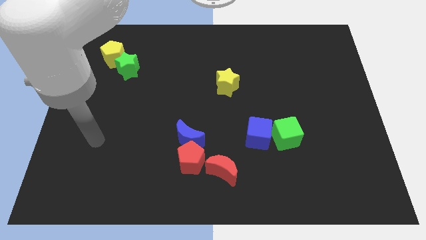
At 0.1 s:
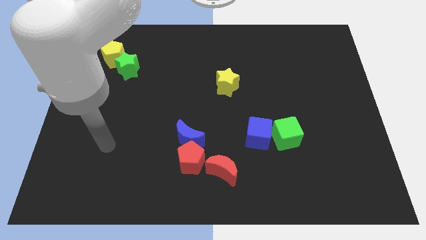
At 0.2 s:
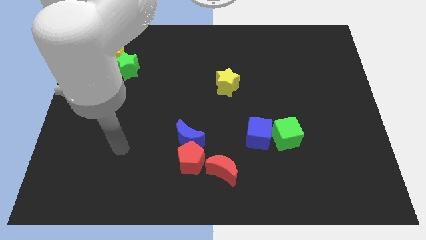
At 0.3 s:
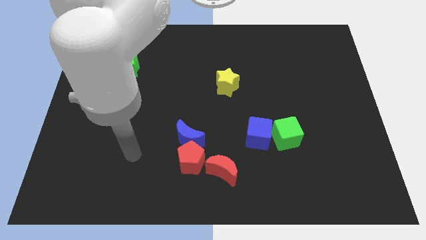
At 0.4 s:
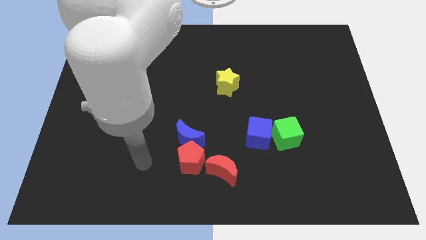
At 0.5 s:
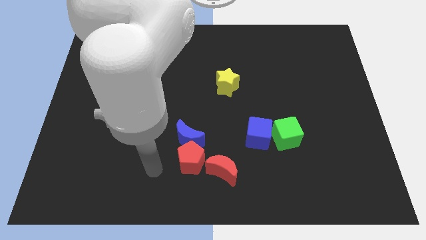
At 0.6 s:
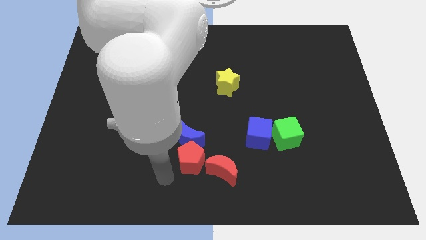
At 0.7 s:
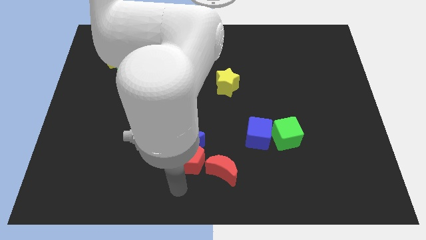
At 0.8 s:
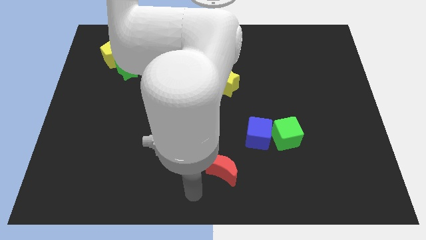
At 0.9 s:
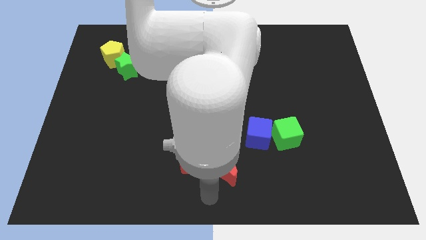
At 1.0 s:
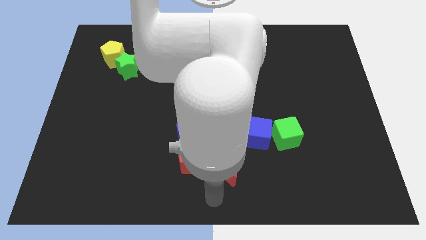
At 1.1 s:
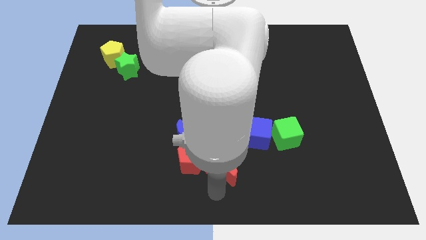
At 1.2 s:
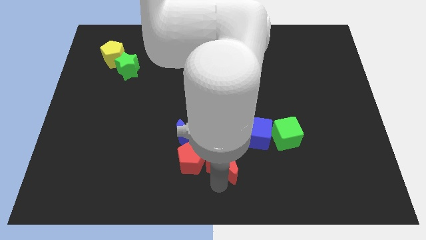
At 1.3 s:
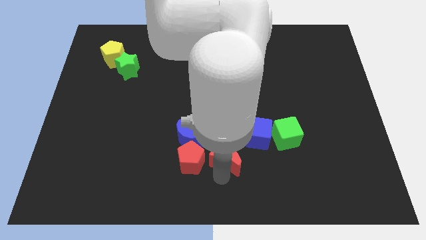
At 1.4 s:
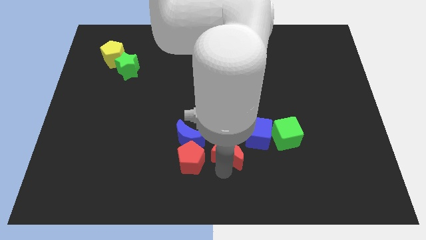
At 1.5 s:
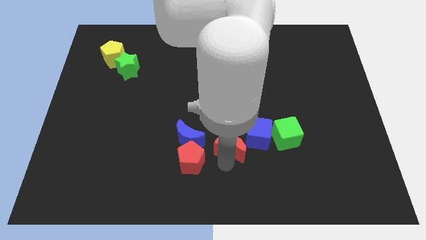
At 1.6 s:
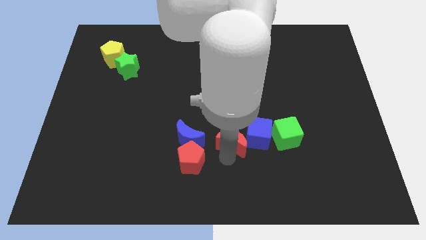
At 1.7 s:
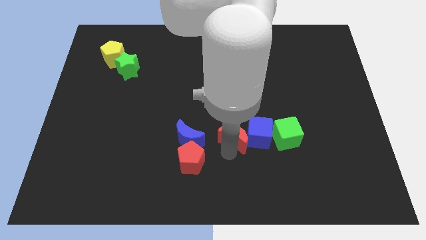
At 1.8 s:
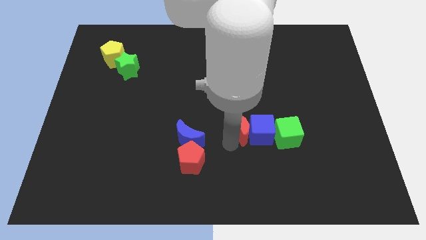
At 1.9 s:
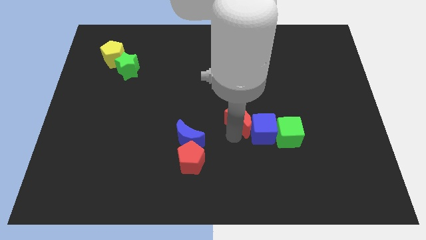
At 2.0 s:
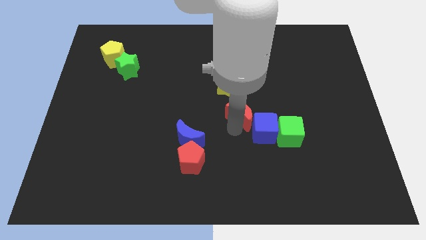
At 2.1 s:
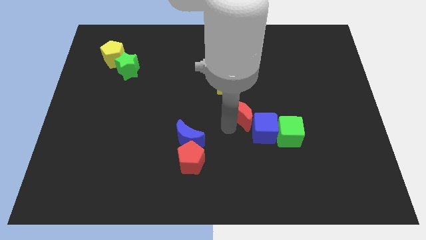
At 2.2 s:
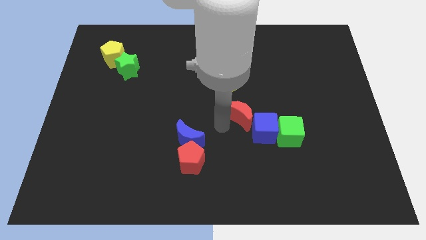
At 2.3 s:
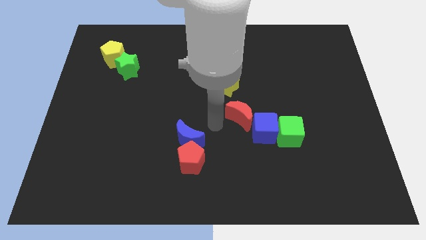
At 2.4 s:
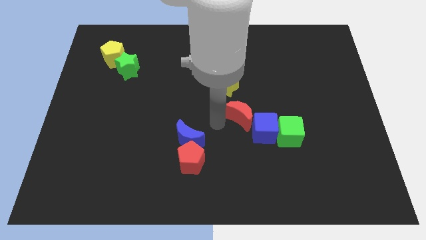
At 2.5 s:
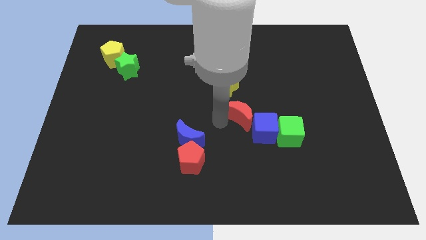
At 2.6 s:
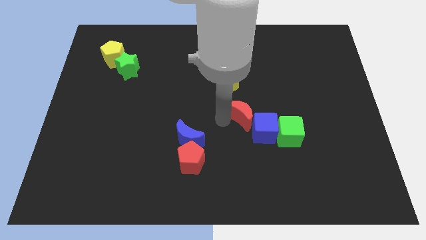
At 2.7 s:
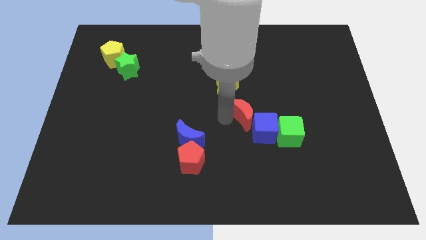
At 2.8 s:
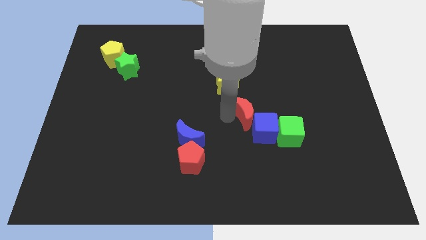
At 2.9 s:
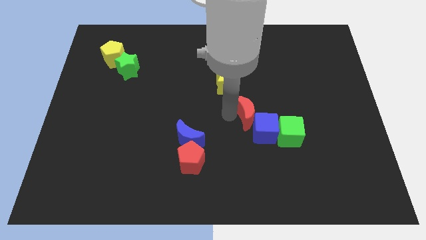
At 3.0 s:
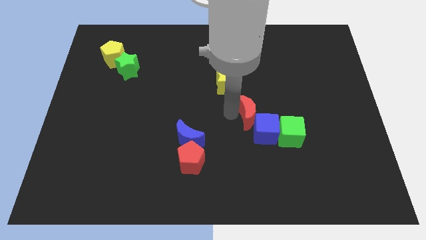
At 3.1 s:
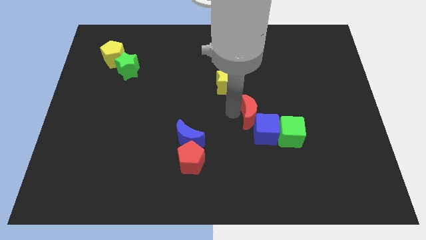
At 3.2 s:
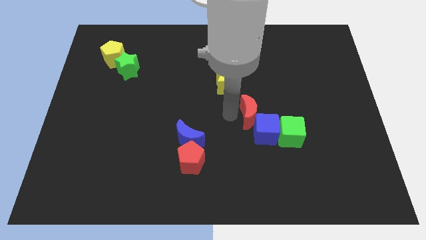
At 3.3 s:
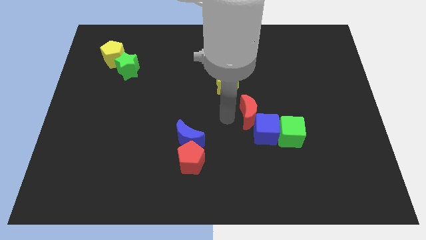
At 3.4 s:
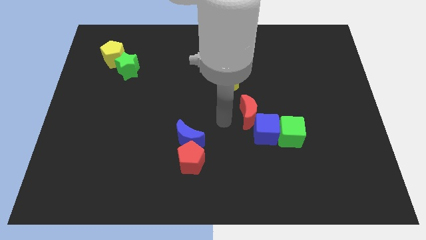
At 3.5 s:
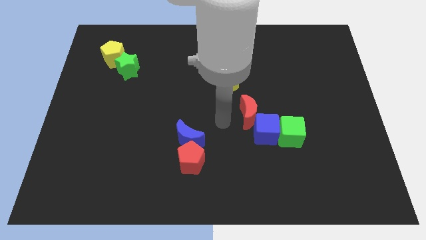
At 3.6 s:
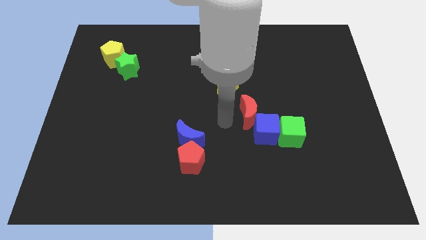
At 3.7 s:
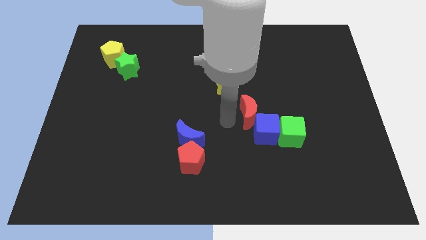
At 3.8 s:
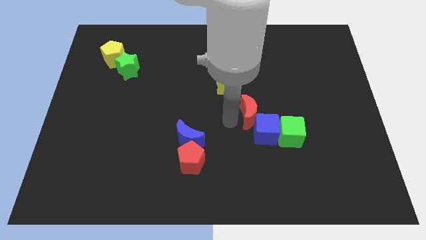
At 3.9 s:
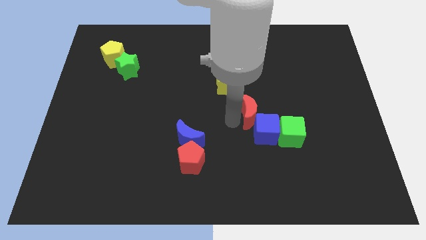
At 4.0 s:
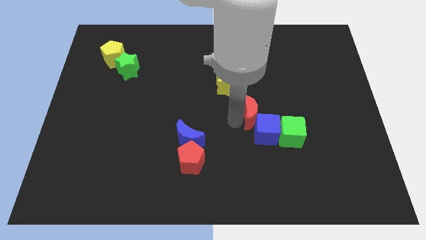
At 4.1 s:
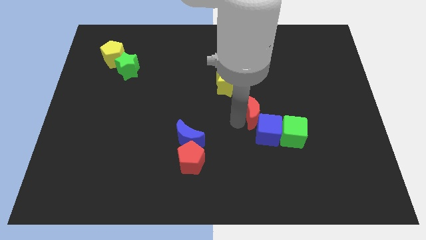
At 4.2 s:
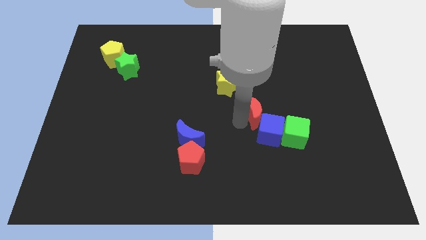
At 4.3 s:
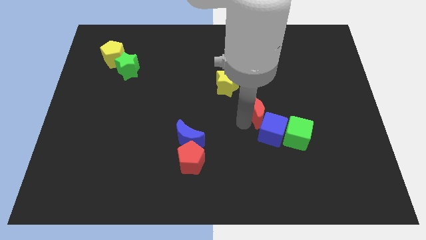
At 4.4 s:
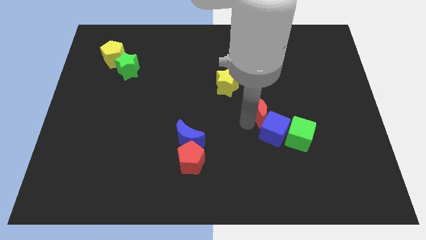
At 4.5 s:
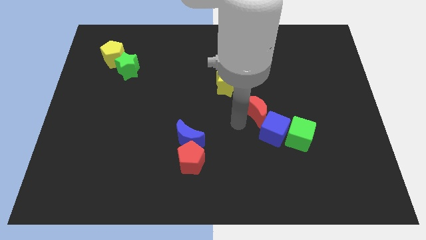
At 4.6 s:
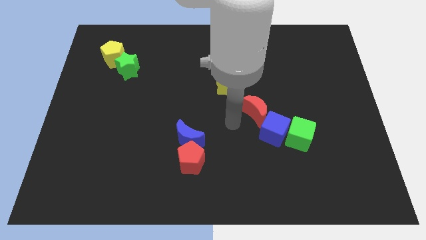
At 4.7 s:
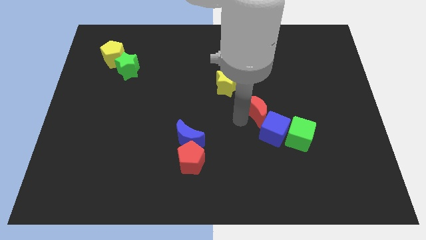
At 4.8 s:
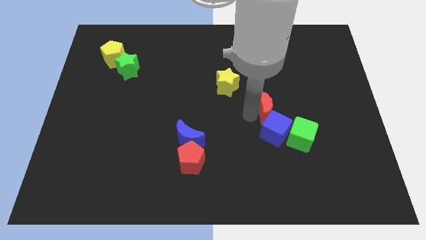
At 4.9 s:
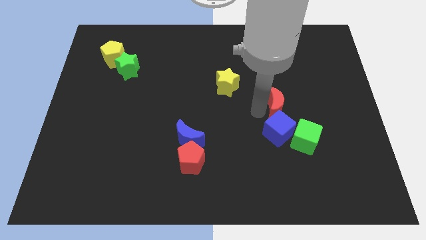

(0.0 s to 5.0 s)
push the red moon diagonally up and to the right

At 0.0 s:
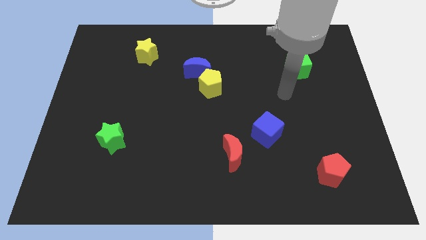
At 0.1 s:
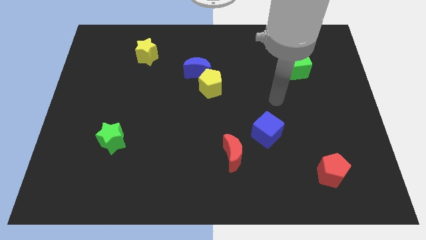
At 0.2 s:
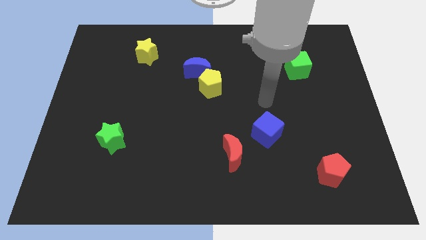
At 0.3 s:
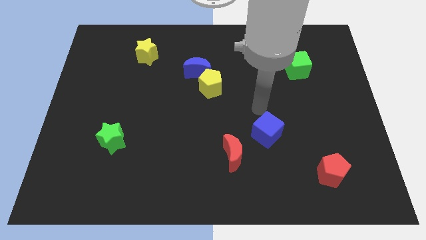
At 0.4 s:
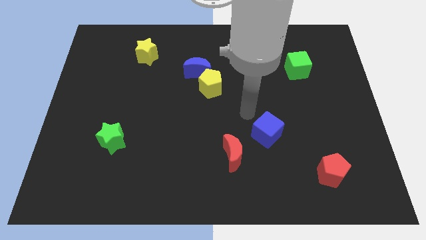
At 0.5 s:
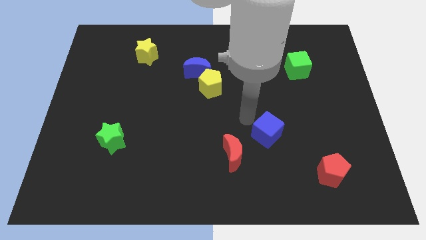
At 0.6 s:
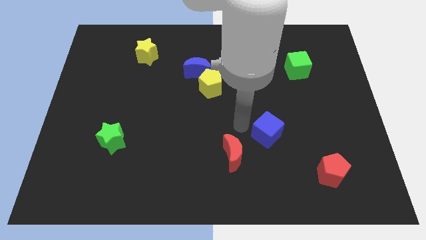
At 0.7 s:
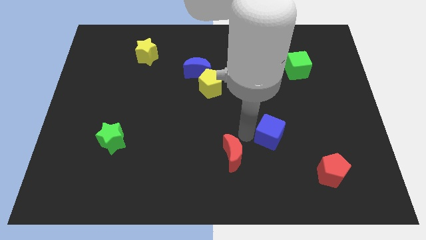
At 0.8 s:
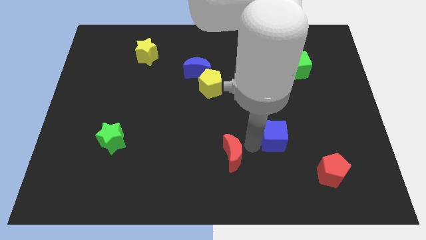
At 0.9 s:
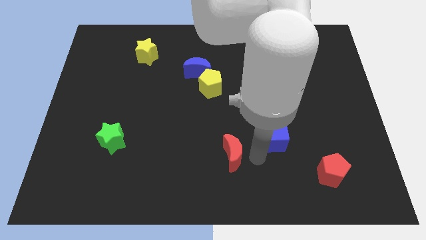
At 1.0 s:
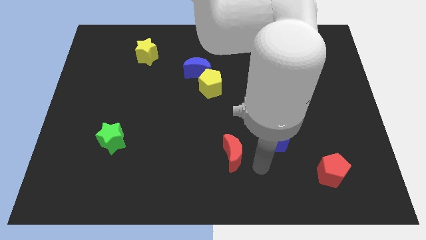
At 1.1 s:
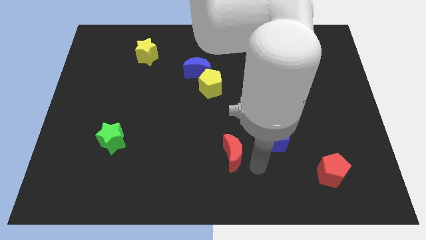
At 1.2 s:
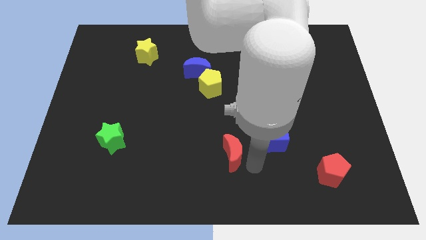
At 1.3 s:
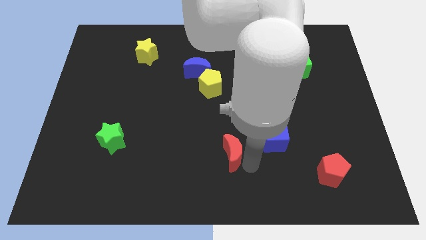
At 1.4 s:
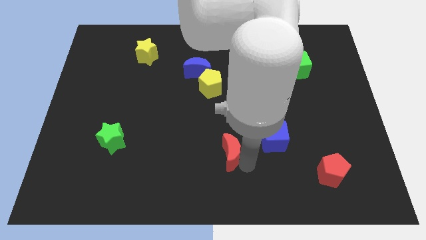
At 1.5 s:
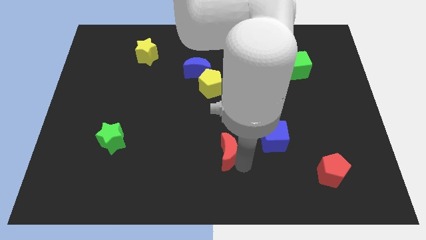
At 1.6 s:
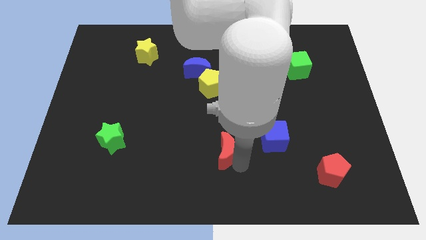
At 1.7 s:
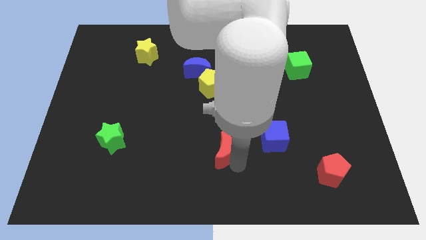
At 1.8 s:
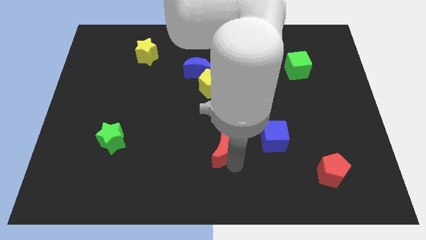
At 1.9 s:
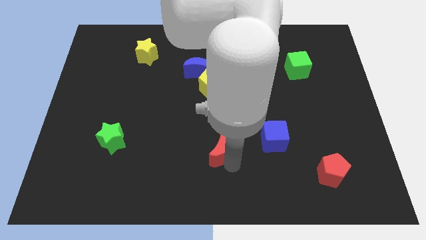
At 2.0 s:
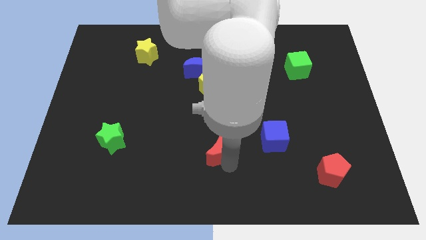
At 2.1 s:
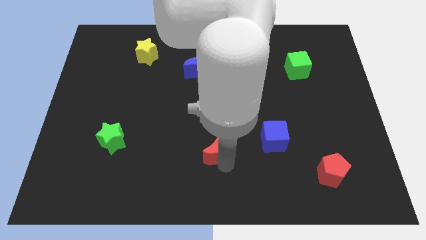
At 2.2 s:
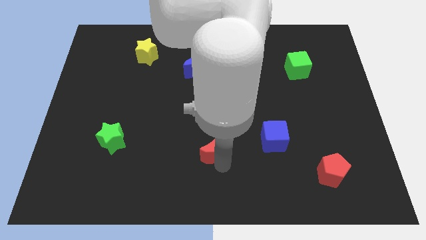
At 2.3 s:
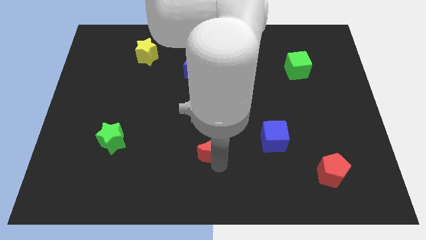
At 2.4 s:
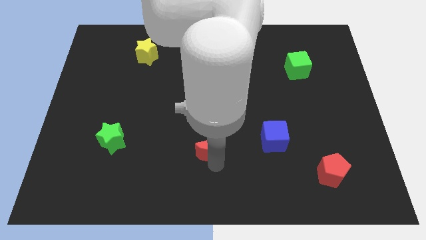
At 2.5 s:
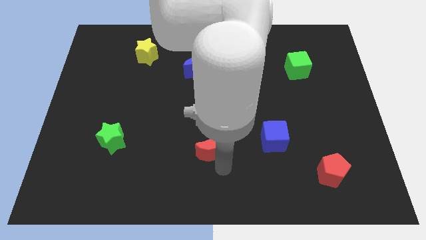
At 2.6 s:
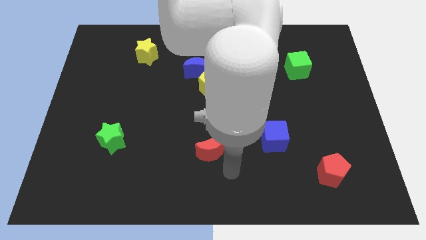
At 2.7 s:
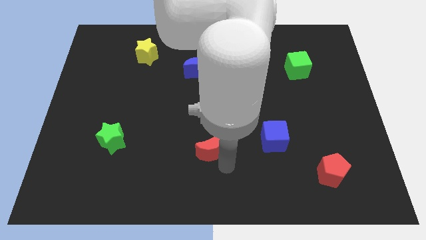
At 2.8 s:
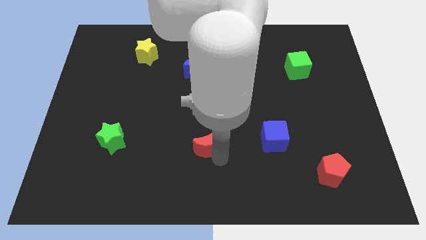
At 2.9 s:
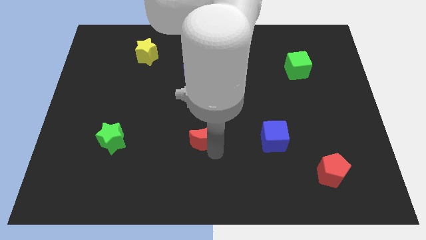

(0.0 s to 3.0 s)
move the red moon upwards and left somewhat
